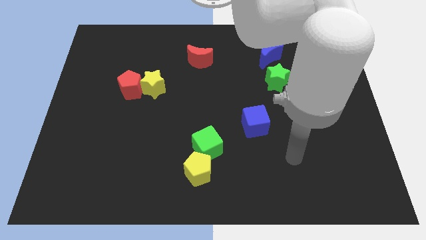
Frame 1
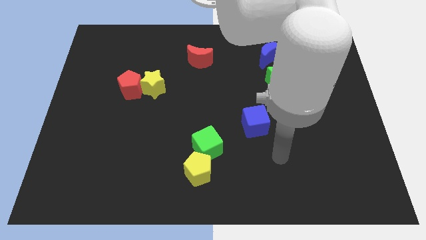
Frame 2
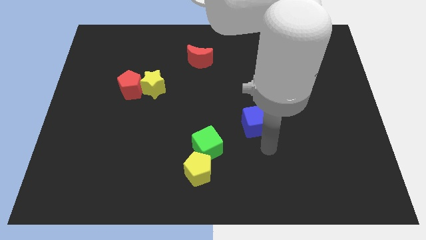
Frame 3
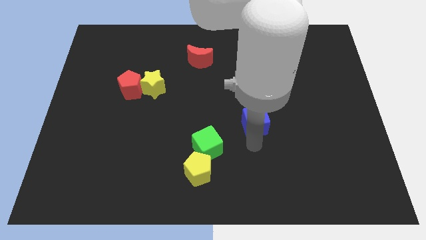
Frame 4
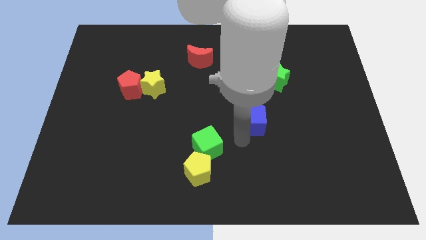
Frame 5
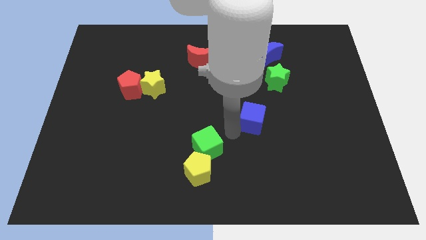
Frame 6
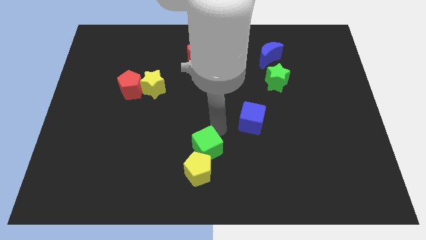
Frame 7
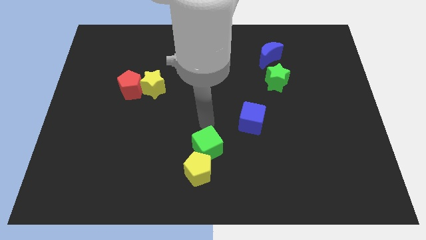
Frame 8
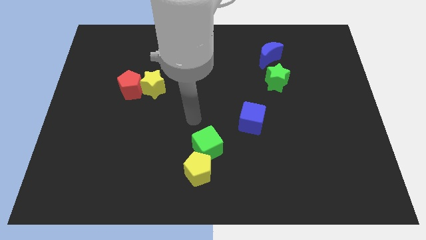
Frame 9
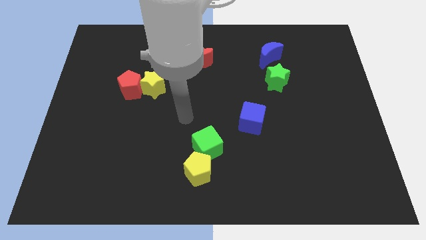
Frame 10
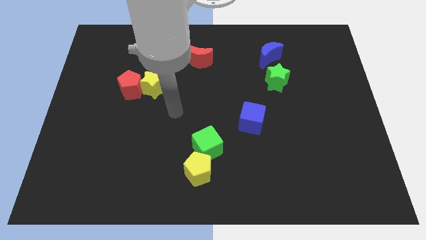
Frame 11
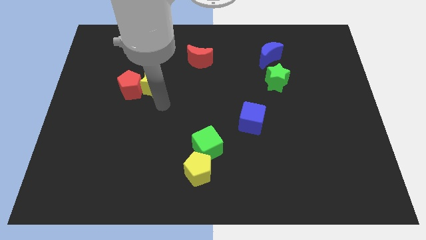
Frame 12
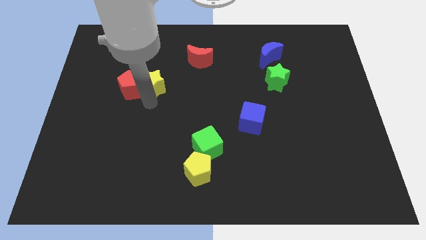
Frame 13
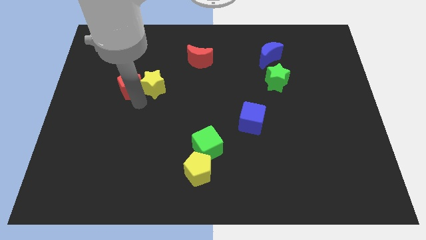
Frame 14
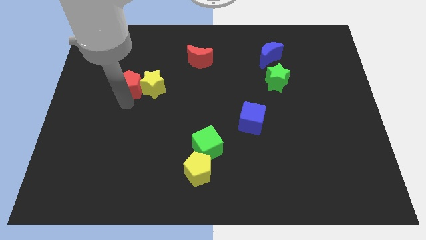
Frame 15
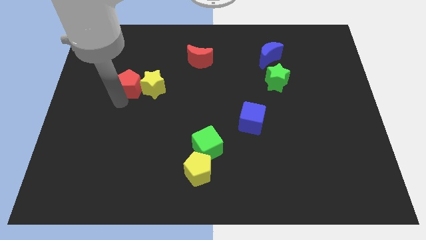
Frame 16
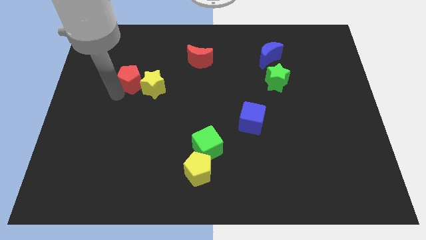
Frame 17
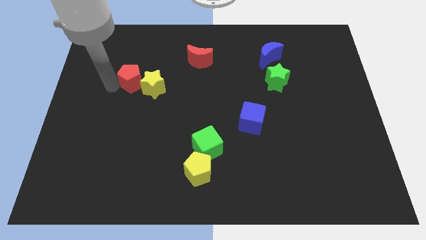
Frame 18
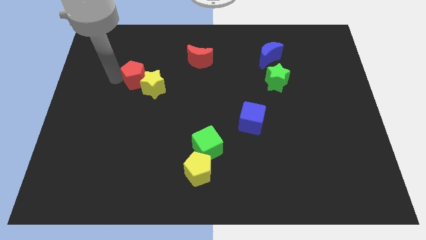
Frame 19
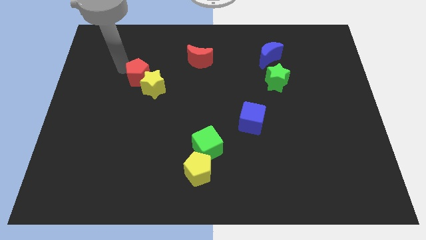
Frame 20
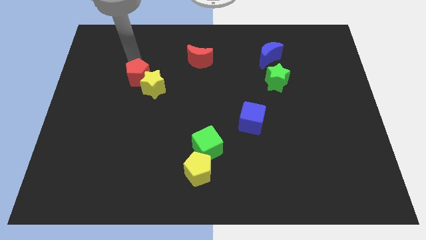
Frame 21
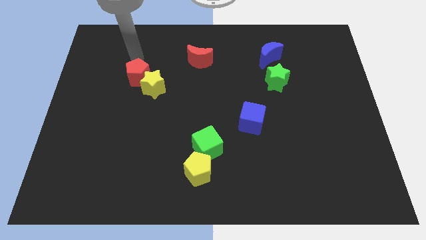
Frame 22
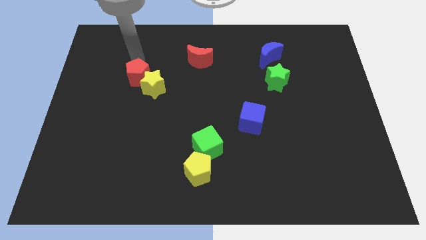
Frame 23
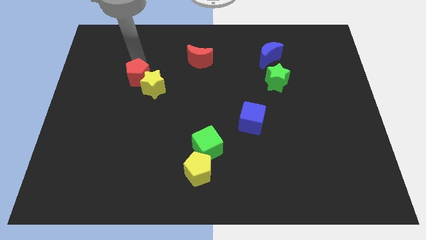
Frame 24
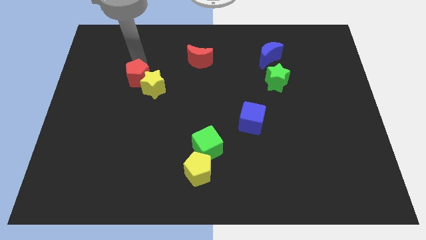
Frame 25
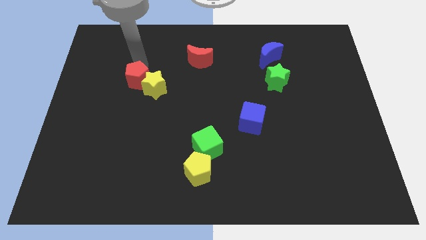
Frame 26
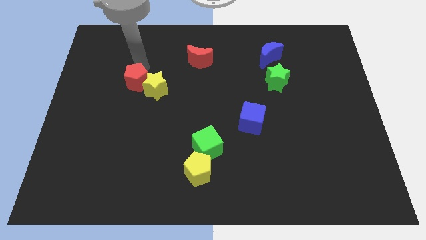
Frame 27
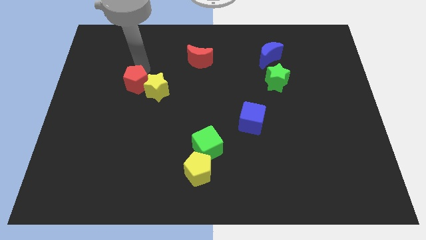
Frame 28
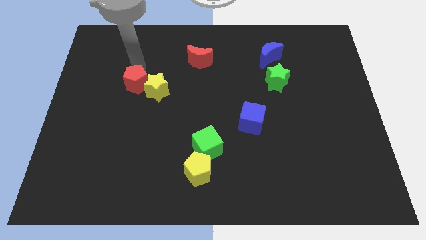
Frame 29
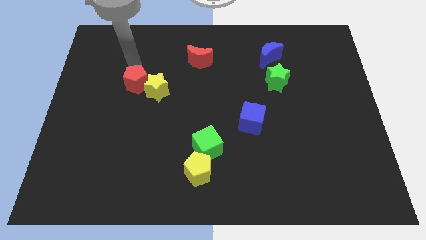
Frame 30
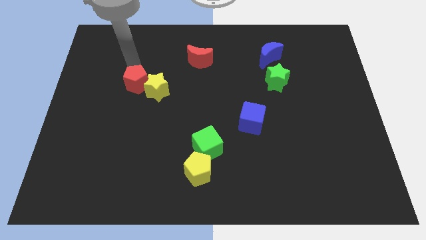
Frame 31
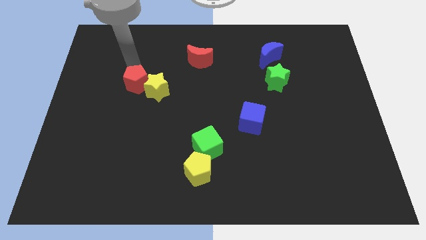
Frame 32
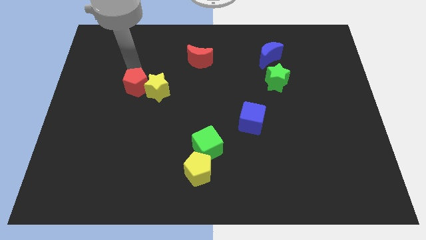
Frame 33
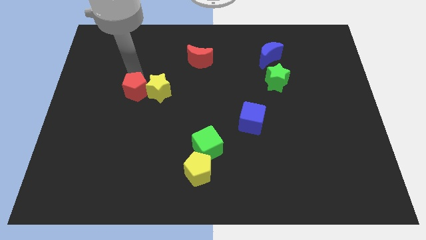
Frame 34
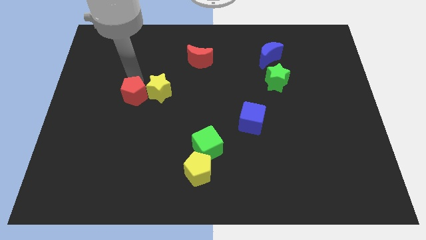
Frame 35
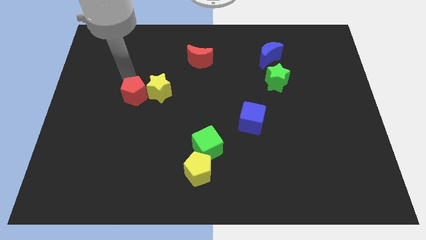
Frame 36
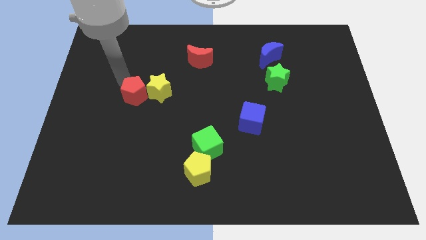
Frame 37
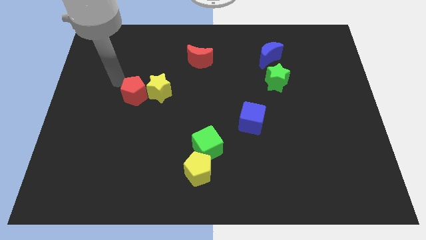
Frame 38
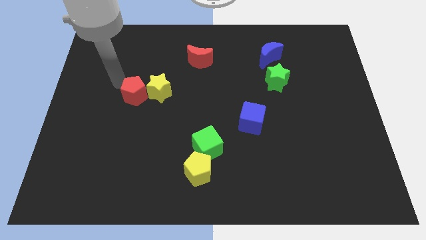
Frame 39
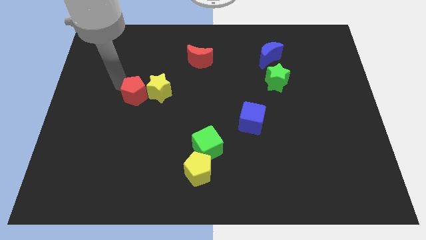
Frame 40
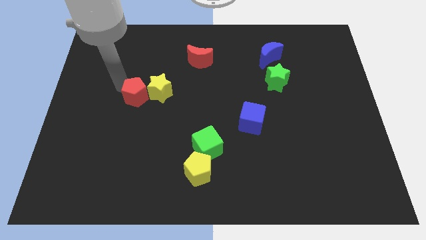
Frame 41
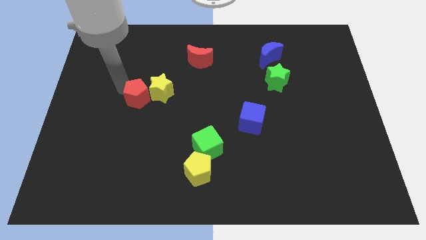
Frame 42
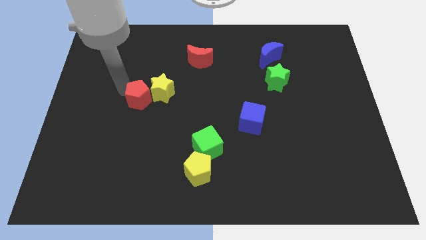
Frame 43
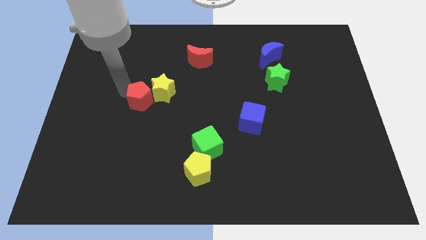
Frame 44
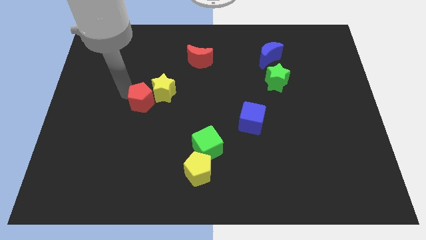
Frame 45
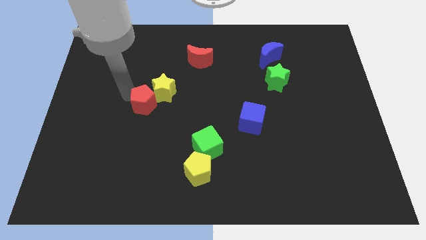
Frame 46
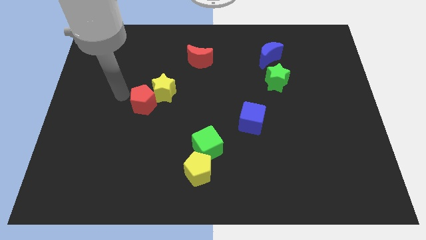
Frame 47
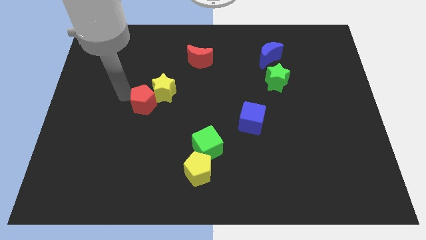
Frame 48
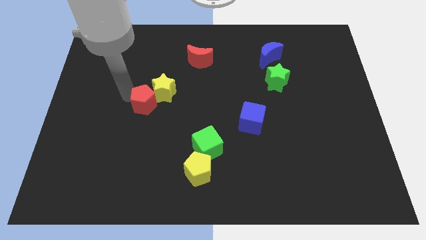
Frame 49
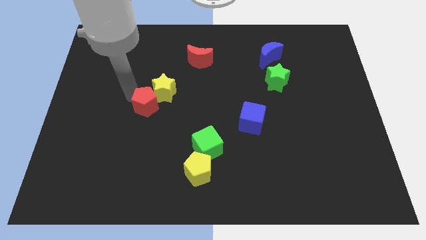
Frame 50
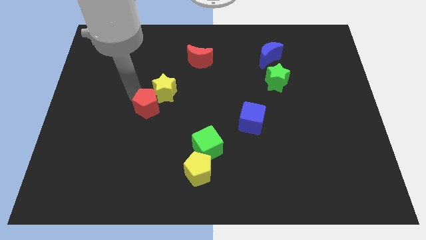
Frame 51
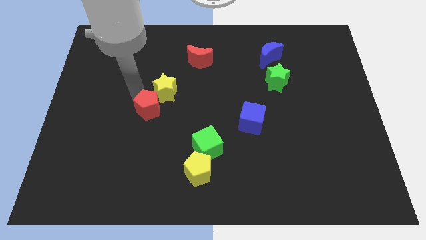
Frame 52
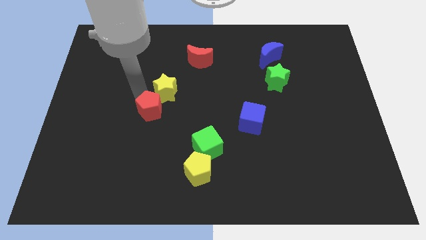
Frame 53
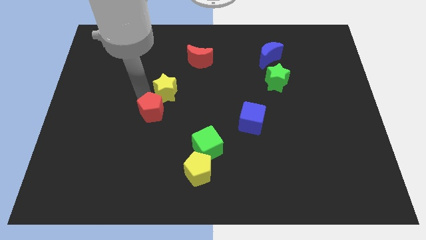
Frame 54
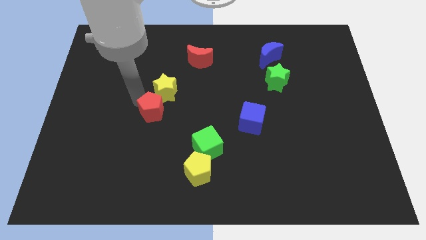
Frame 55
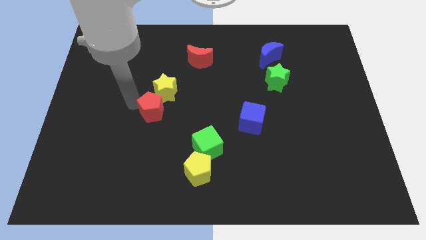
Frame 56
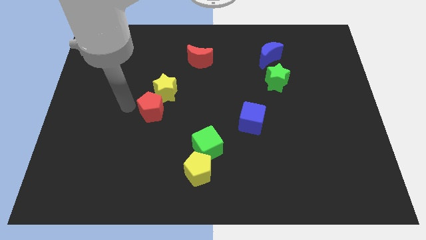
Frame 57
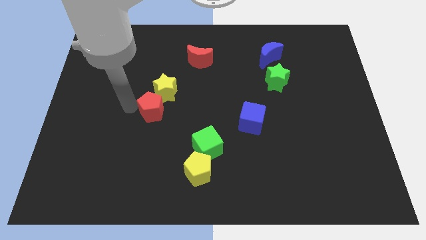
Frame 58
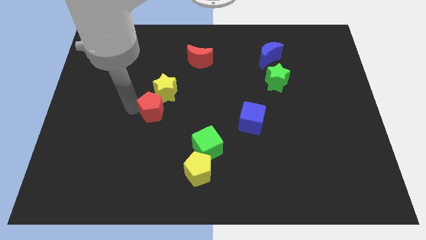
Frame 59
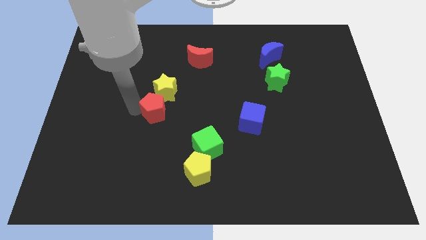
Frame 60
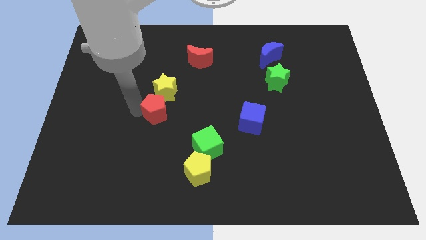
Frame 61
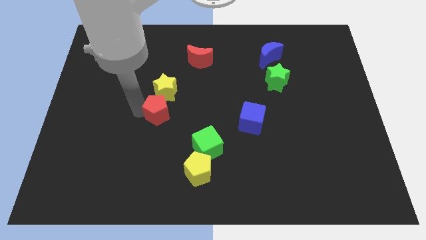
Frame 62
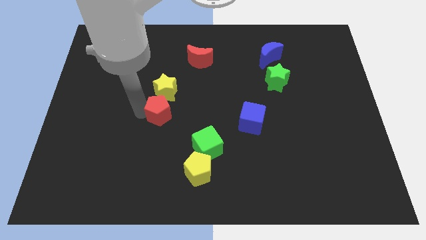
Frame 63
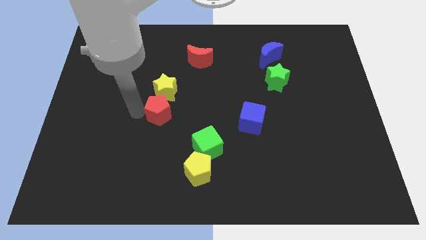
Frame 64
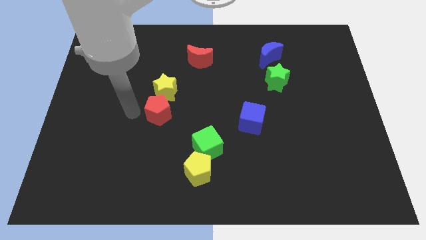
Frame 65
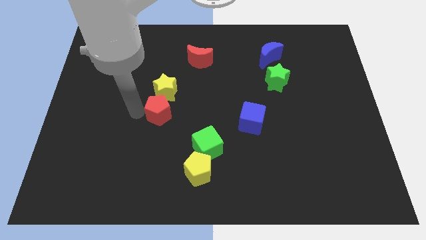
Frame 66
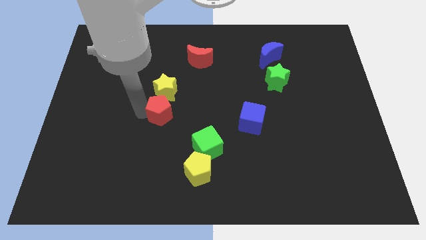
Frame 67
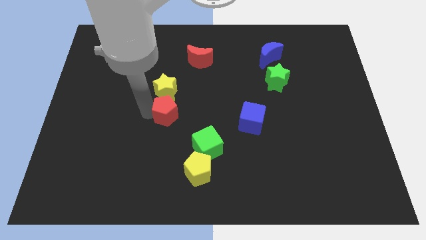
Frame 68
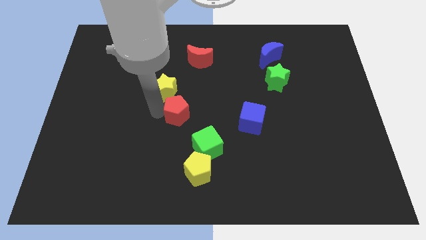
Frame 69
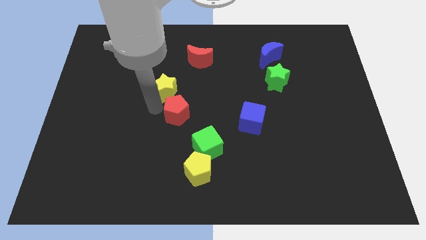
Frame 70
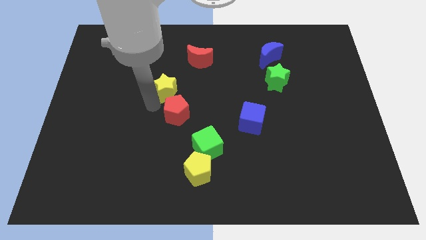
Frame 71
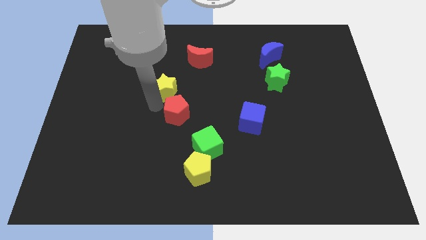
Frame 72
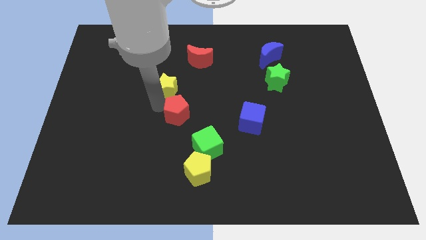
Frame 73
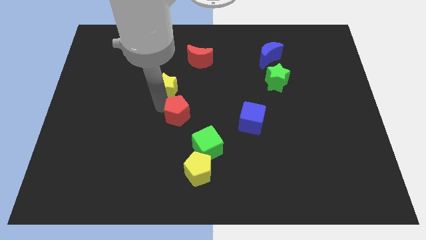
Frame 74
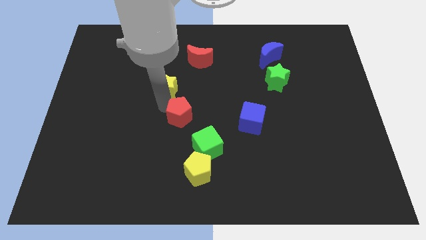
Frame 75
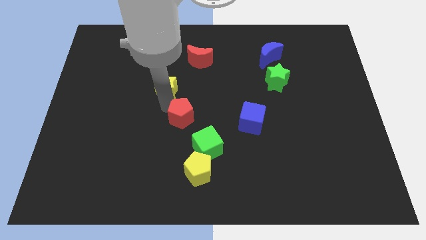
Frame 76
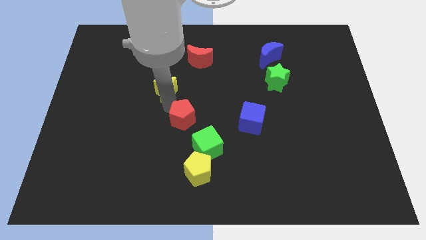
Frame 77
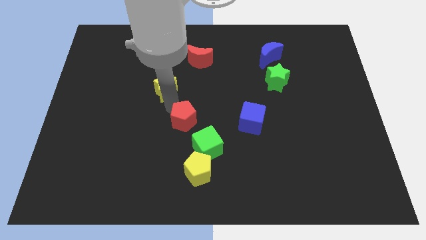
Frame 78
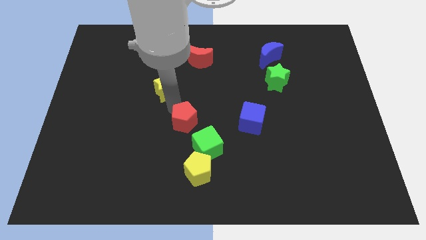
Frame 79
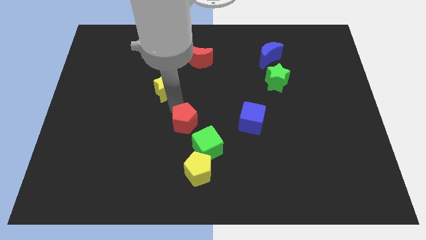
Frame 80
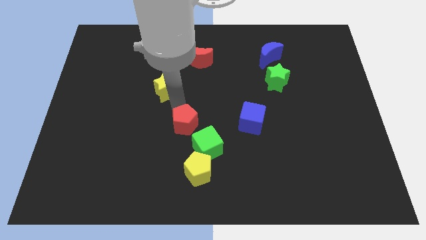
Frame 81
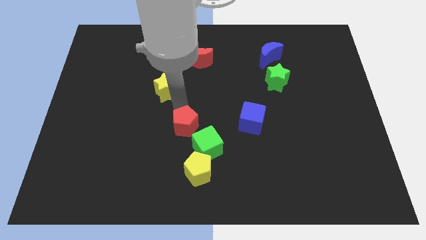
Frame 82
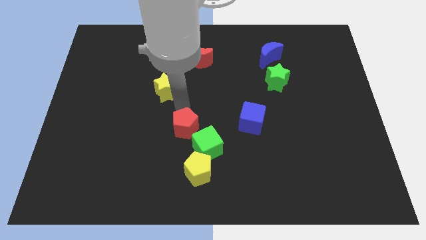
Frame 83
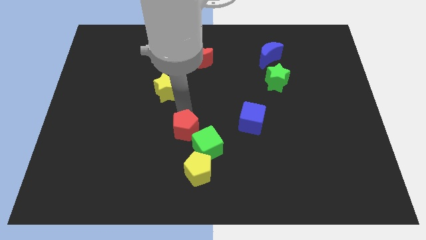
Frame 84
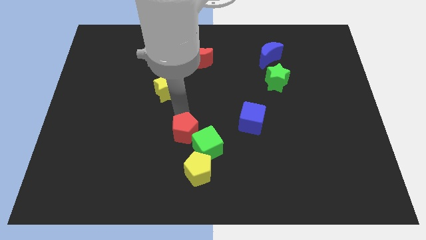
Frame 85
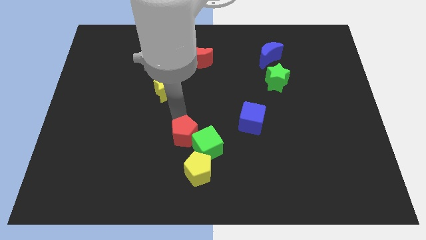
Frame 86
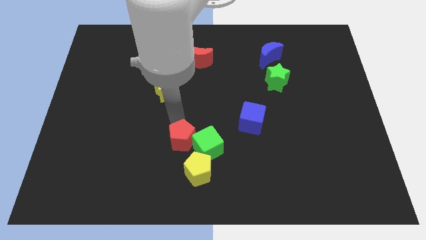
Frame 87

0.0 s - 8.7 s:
move the red pentagon diagonally downwards and right
